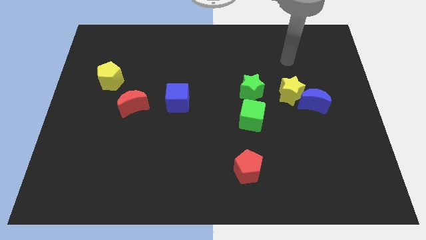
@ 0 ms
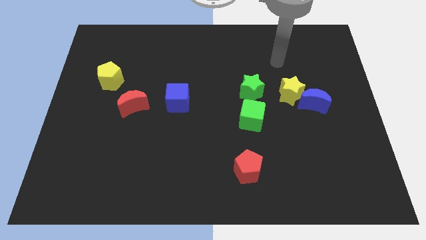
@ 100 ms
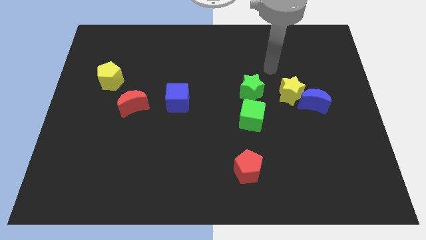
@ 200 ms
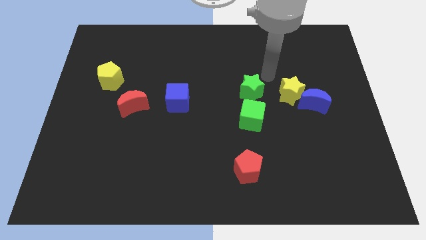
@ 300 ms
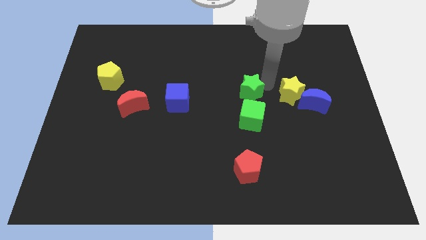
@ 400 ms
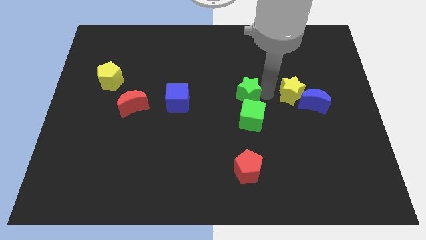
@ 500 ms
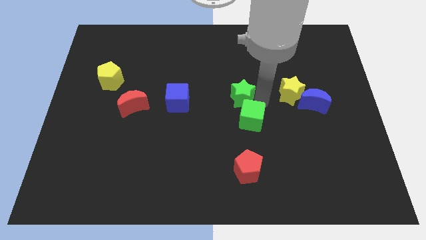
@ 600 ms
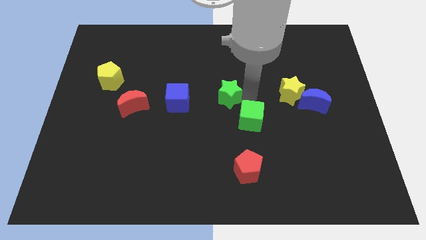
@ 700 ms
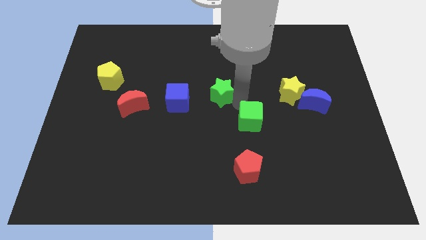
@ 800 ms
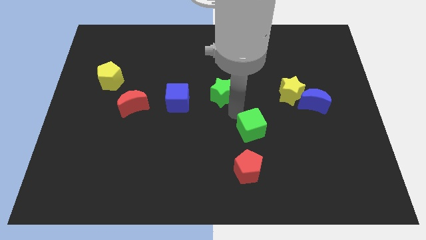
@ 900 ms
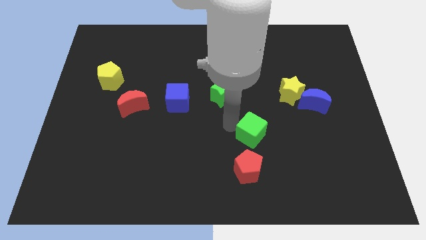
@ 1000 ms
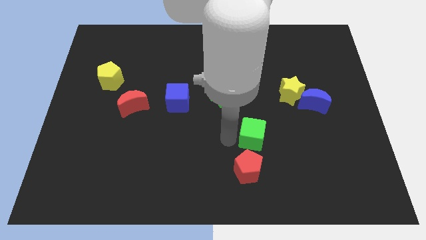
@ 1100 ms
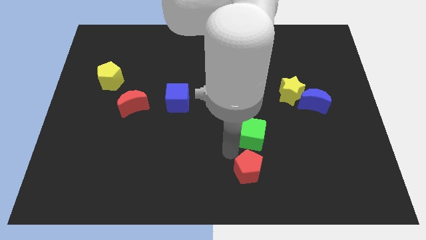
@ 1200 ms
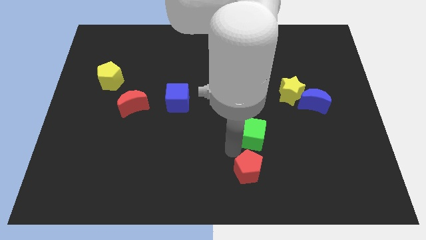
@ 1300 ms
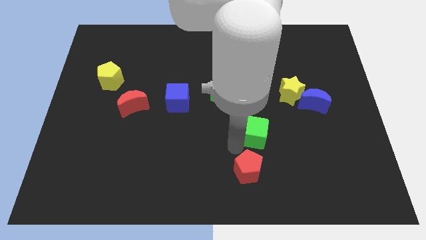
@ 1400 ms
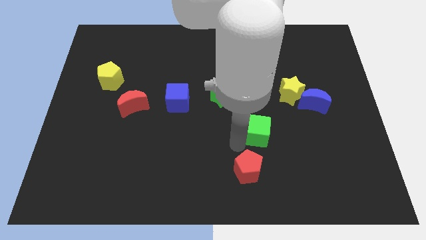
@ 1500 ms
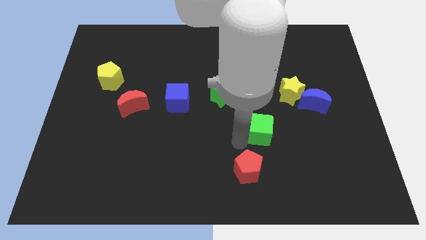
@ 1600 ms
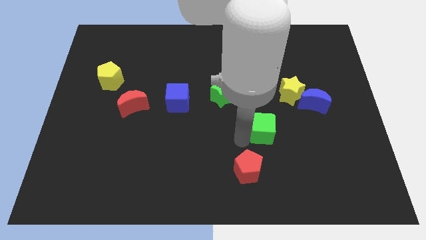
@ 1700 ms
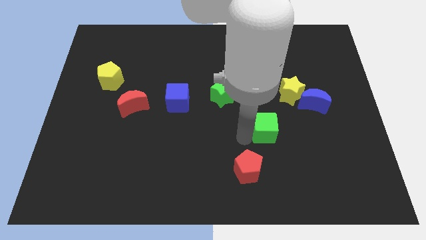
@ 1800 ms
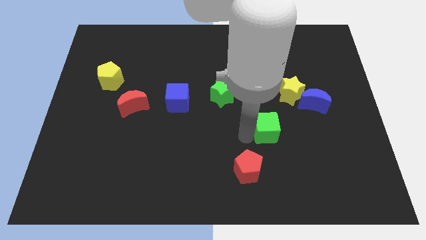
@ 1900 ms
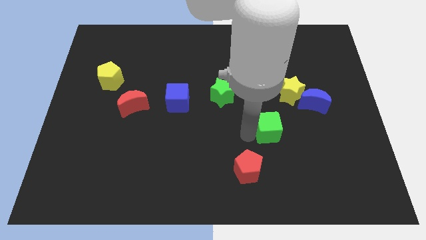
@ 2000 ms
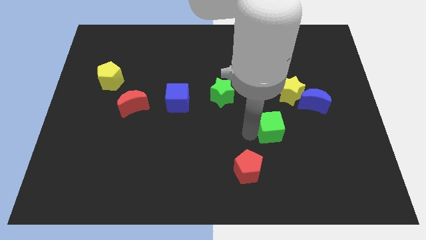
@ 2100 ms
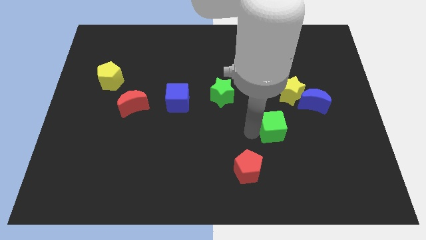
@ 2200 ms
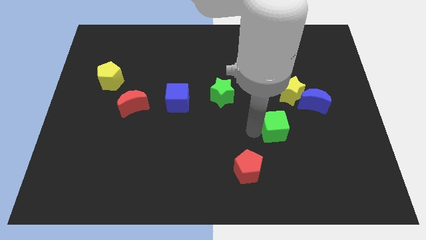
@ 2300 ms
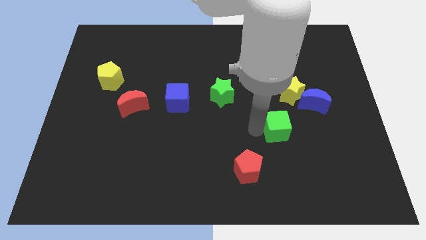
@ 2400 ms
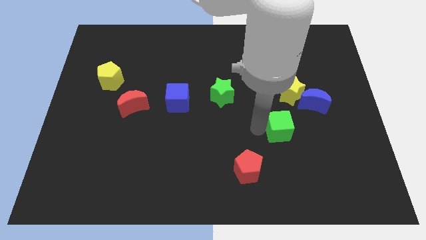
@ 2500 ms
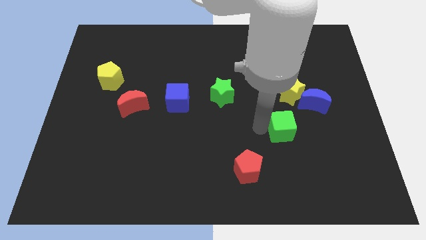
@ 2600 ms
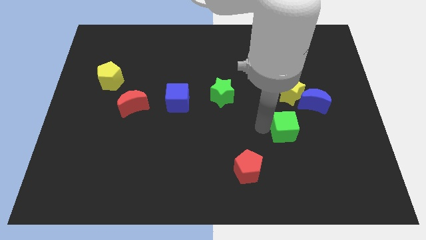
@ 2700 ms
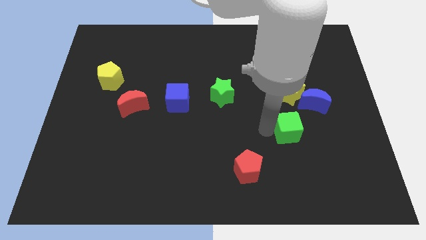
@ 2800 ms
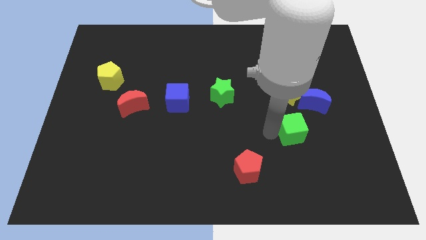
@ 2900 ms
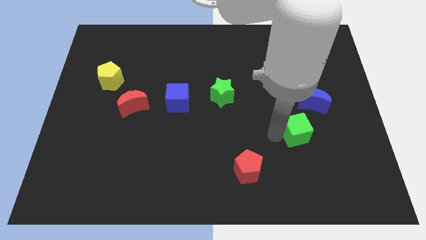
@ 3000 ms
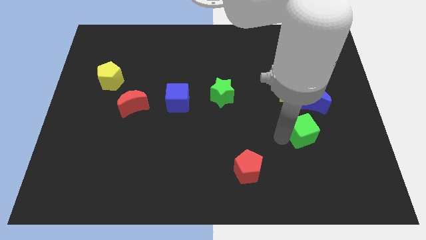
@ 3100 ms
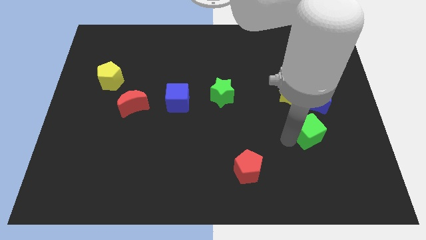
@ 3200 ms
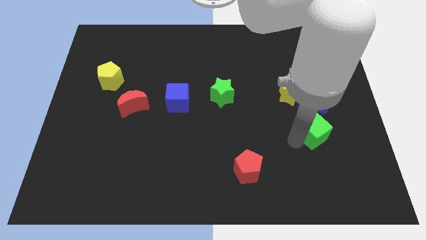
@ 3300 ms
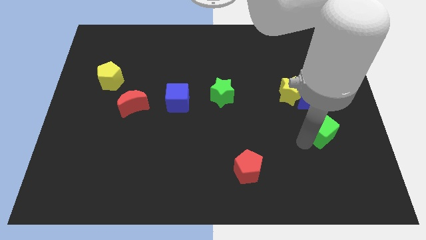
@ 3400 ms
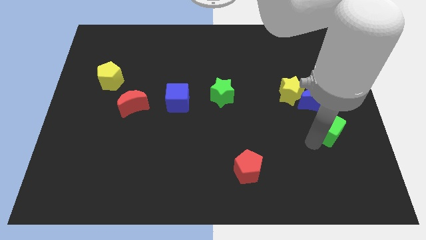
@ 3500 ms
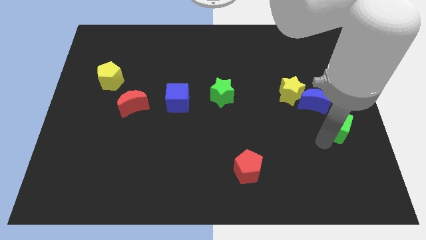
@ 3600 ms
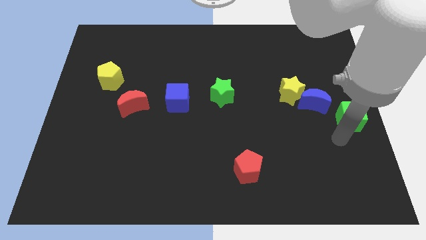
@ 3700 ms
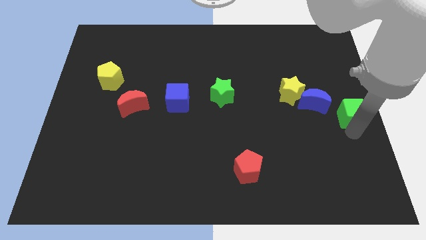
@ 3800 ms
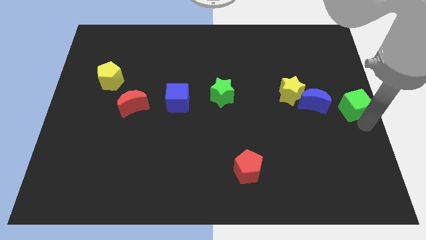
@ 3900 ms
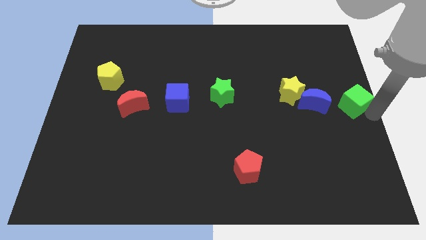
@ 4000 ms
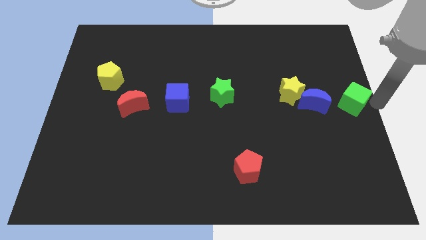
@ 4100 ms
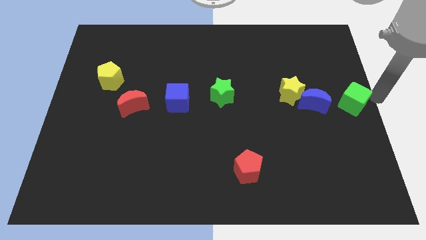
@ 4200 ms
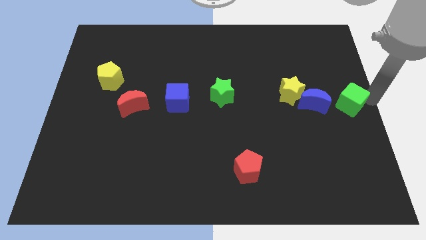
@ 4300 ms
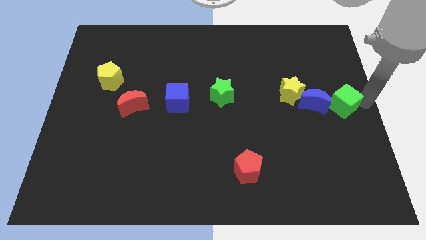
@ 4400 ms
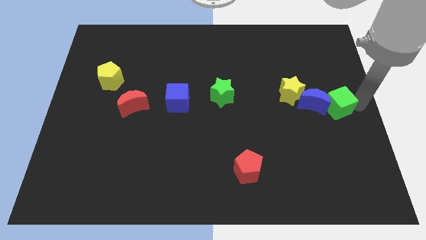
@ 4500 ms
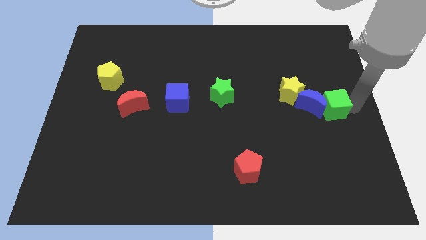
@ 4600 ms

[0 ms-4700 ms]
slide the green cube diagonally down and to the right of the yellow star

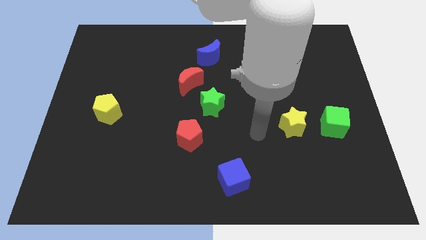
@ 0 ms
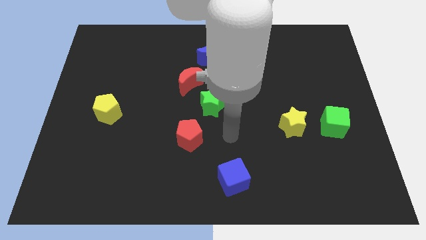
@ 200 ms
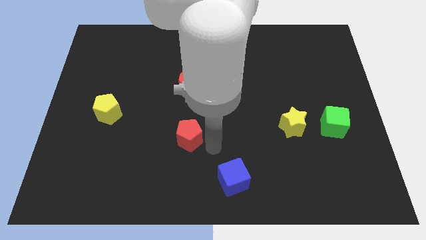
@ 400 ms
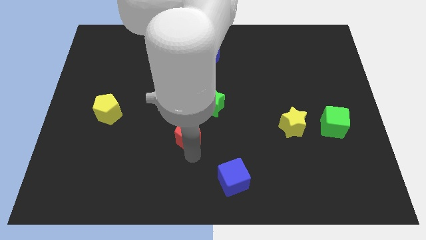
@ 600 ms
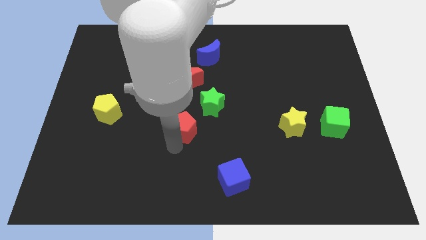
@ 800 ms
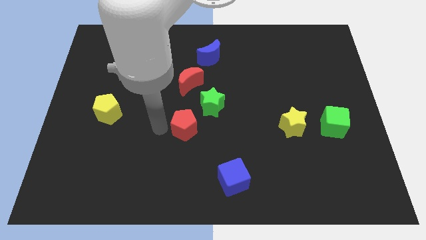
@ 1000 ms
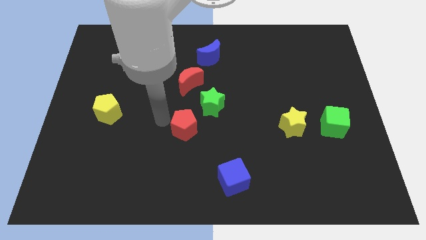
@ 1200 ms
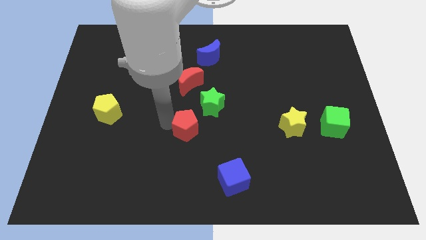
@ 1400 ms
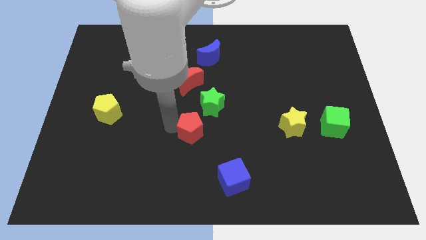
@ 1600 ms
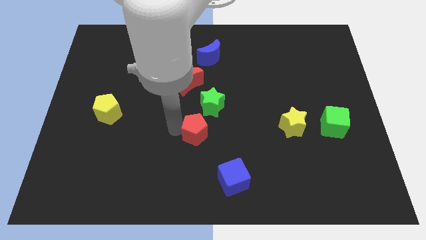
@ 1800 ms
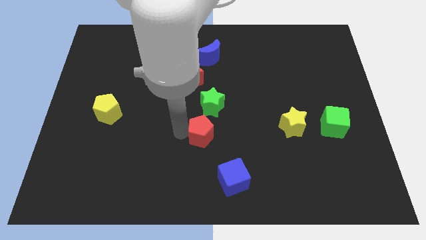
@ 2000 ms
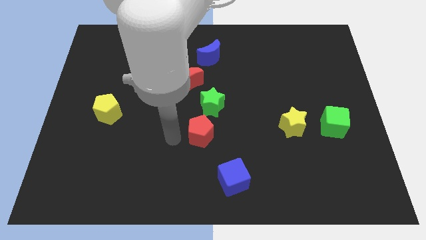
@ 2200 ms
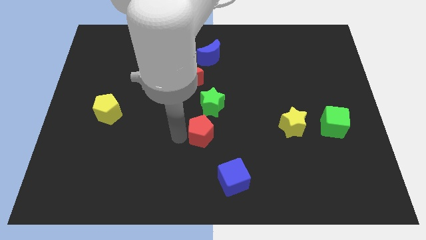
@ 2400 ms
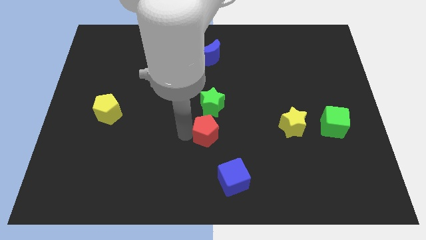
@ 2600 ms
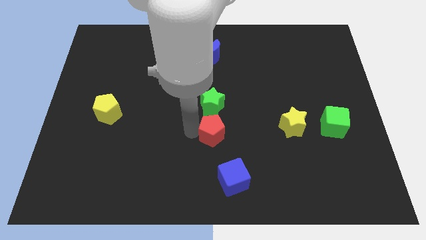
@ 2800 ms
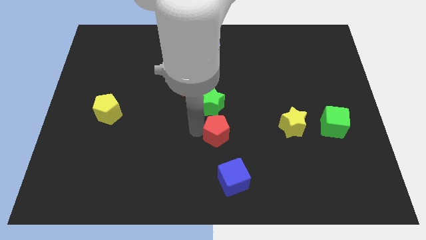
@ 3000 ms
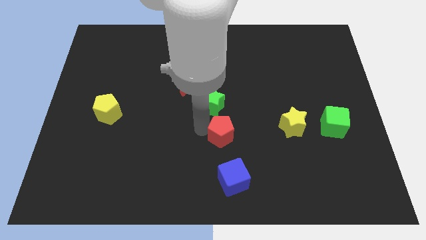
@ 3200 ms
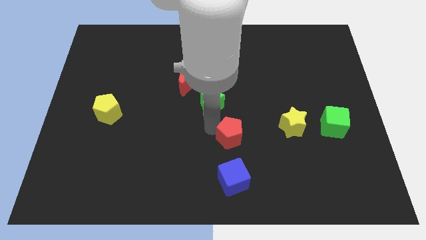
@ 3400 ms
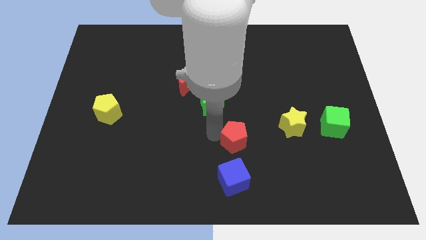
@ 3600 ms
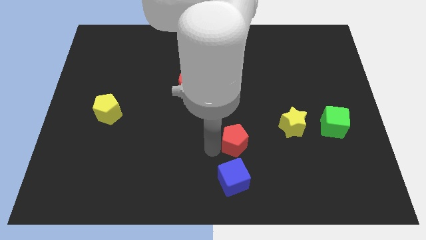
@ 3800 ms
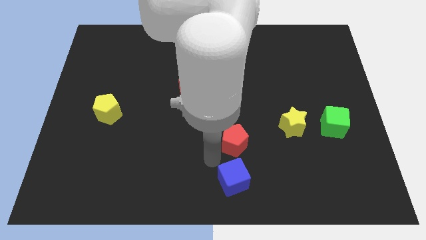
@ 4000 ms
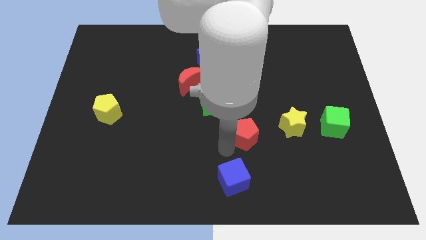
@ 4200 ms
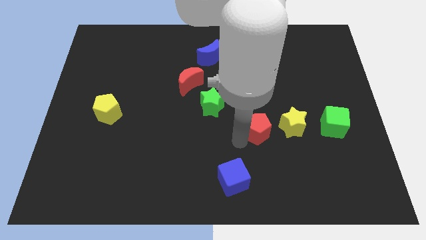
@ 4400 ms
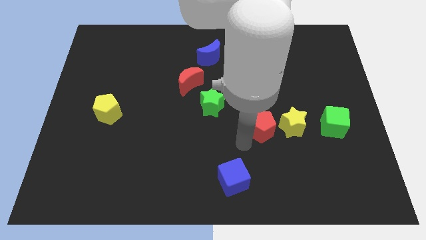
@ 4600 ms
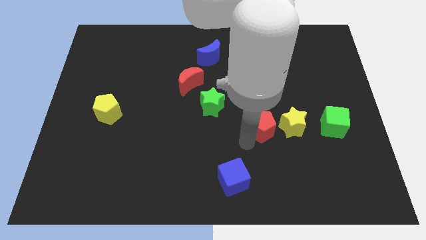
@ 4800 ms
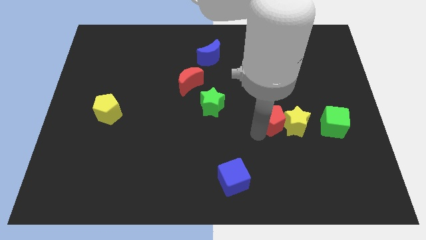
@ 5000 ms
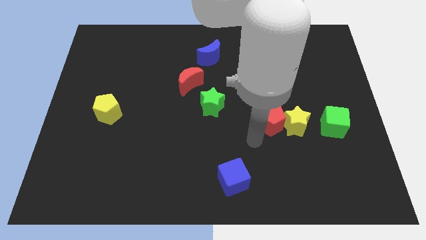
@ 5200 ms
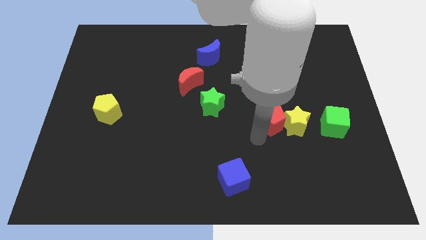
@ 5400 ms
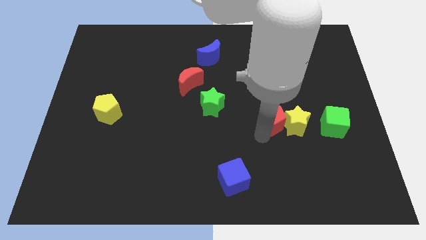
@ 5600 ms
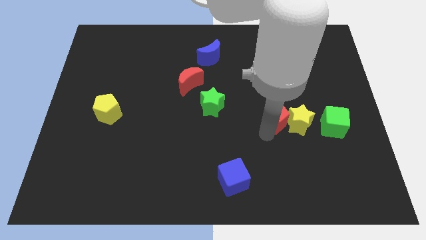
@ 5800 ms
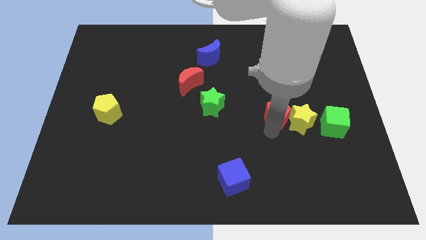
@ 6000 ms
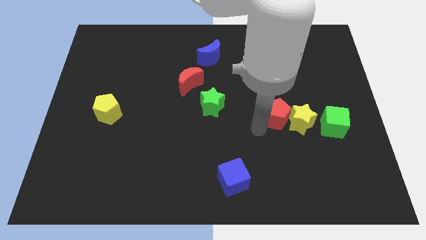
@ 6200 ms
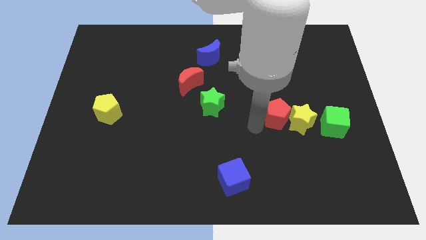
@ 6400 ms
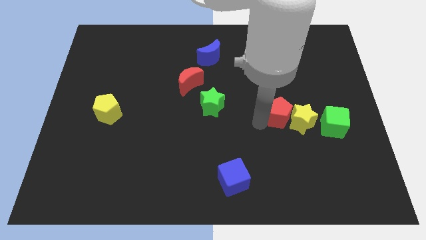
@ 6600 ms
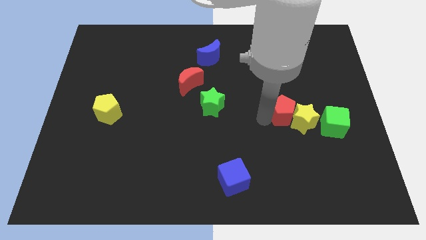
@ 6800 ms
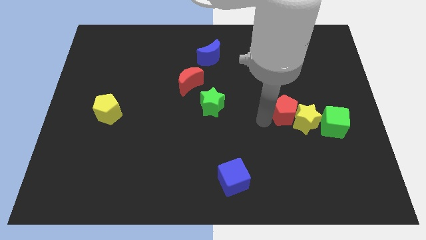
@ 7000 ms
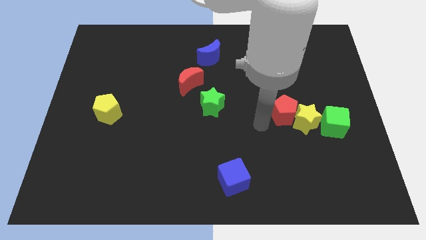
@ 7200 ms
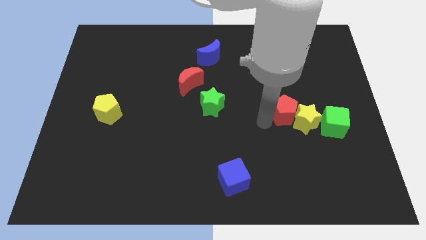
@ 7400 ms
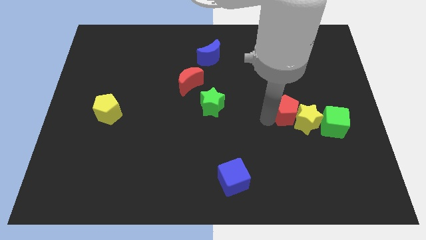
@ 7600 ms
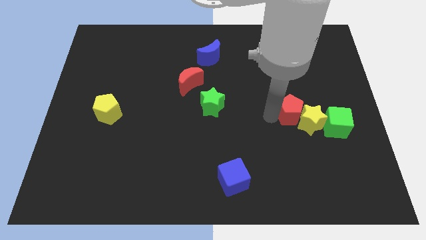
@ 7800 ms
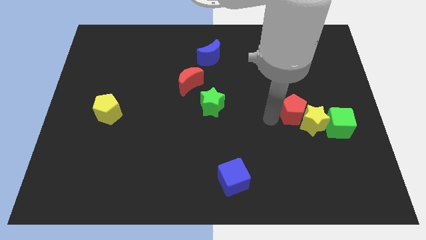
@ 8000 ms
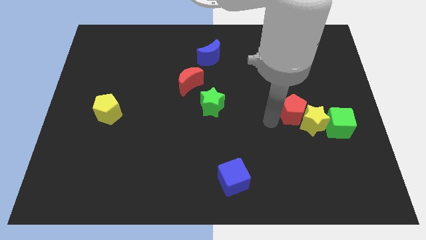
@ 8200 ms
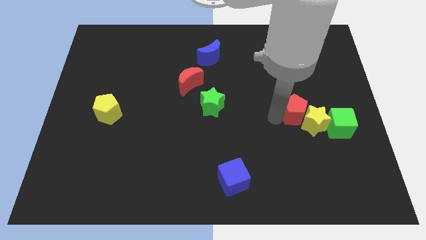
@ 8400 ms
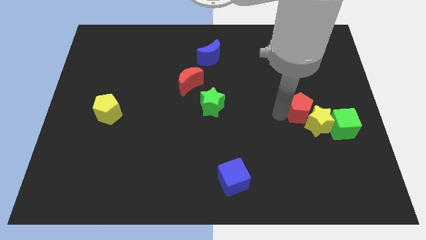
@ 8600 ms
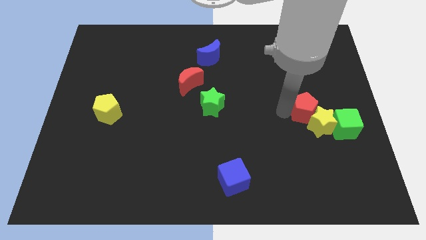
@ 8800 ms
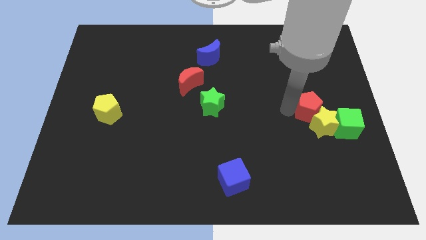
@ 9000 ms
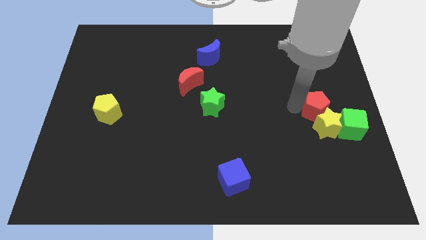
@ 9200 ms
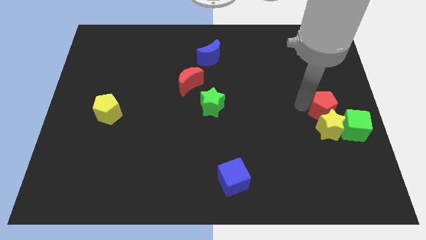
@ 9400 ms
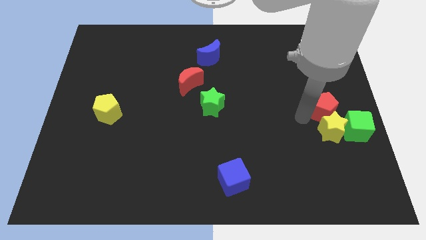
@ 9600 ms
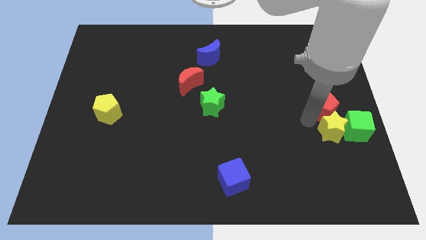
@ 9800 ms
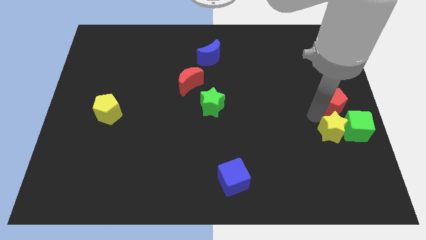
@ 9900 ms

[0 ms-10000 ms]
move the red pentagon above the green cube
